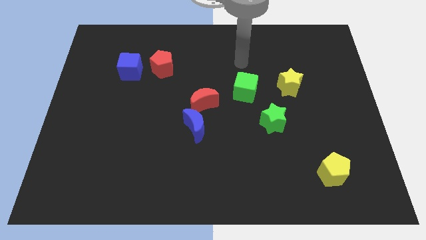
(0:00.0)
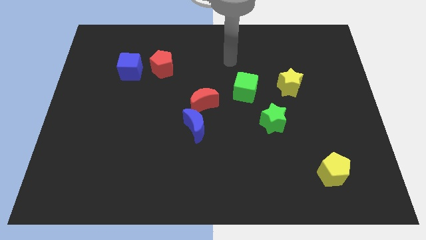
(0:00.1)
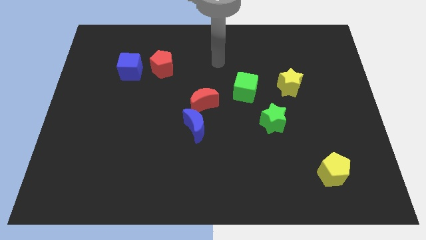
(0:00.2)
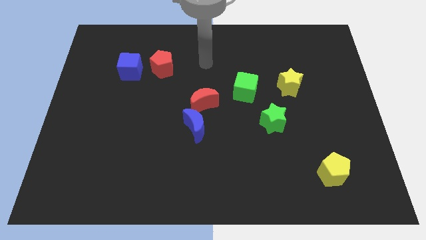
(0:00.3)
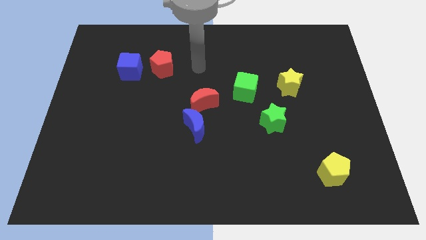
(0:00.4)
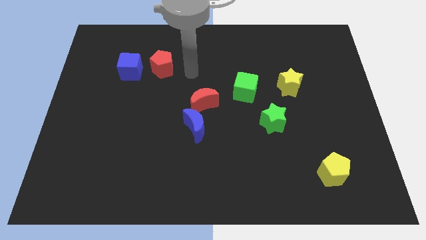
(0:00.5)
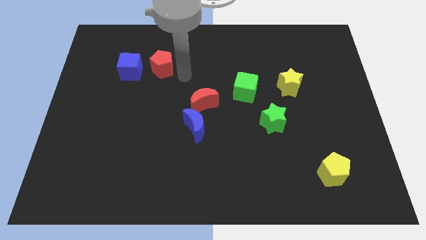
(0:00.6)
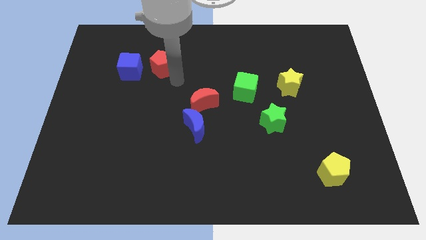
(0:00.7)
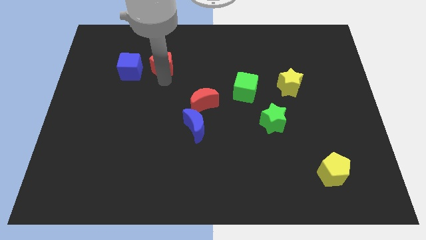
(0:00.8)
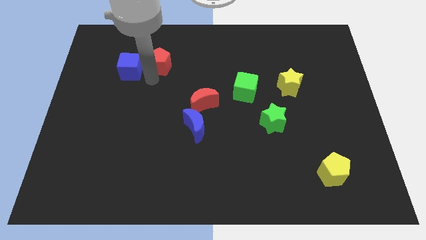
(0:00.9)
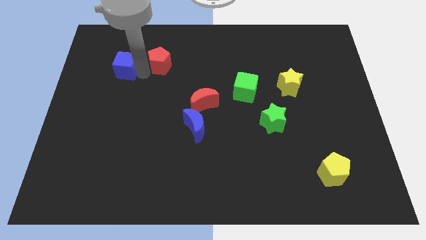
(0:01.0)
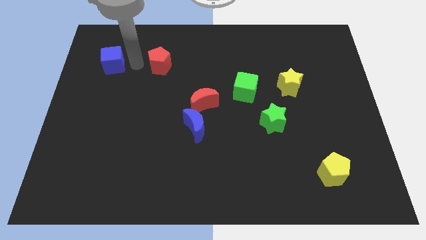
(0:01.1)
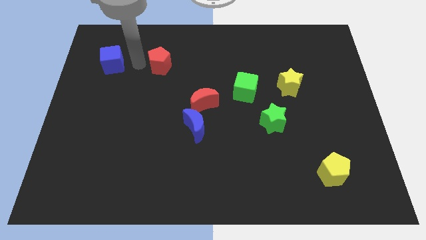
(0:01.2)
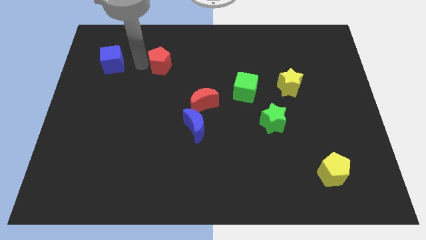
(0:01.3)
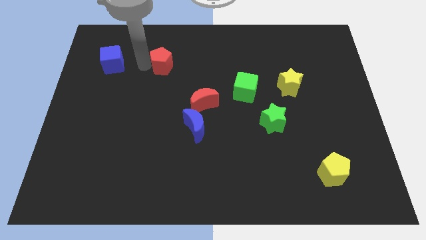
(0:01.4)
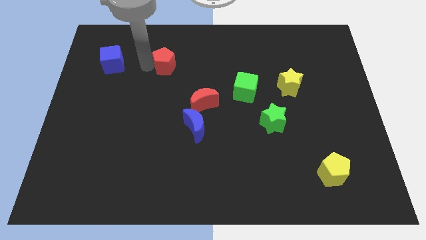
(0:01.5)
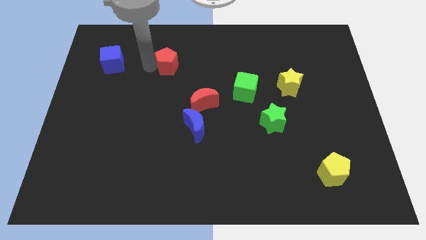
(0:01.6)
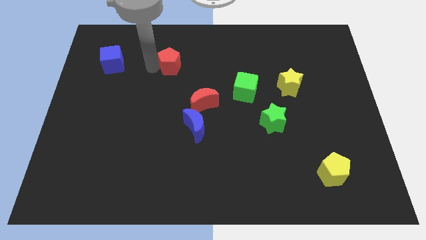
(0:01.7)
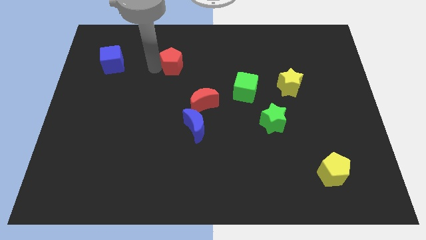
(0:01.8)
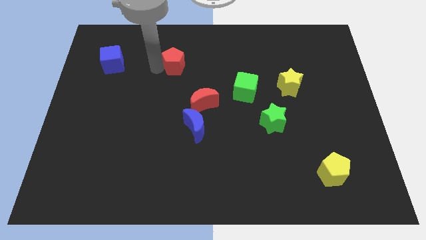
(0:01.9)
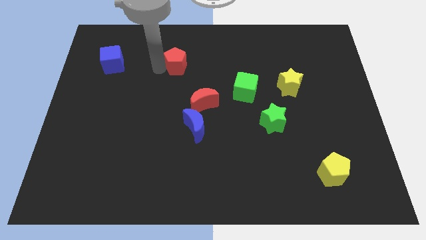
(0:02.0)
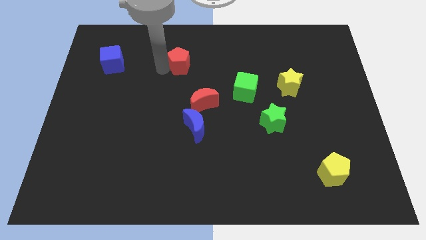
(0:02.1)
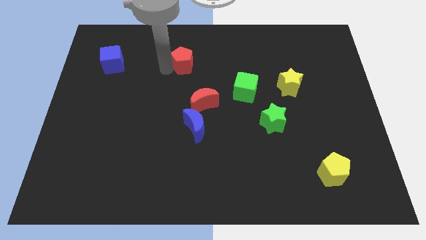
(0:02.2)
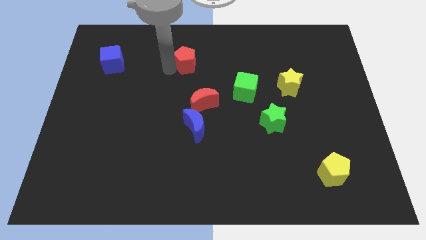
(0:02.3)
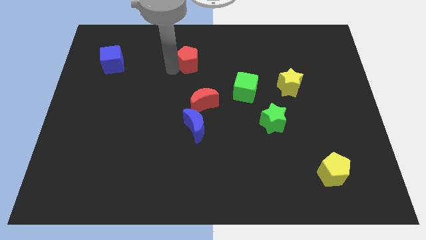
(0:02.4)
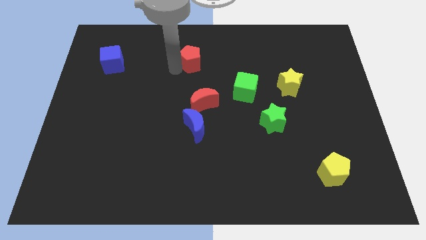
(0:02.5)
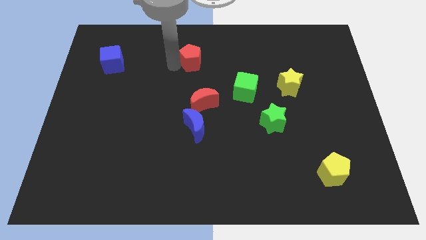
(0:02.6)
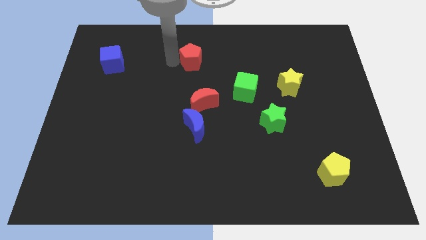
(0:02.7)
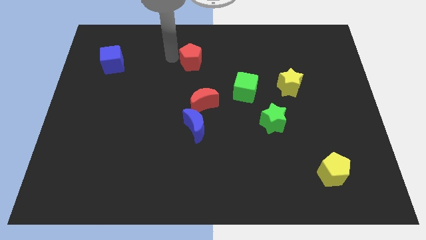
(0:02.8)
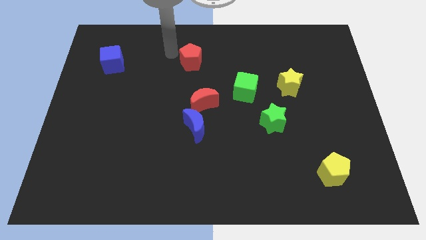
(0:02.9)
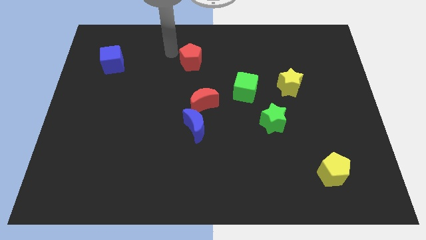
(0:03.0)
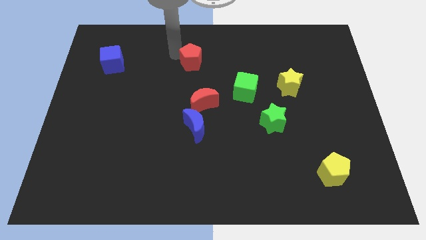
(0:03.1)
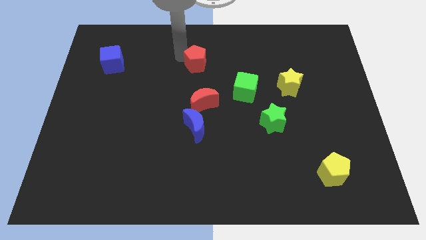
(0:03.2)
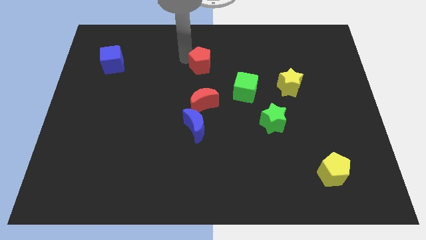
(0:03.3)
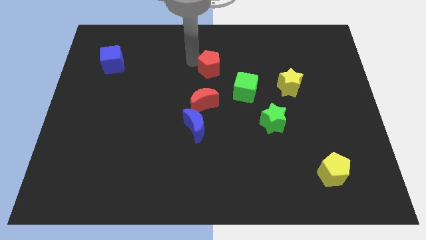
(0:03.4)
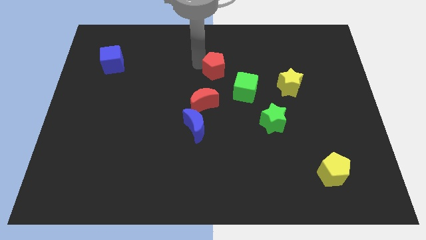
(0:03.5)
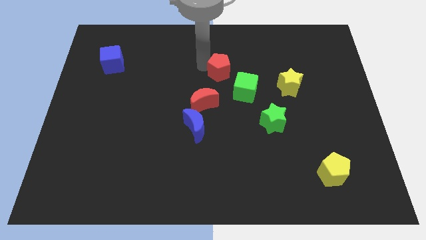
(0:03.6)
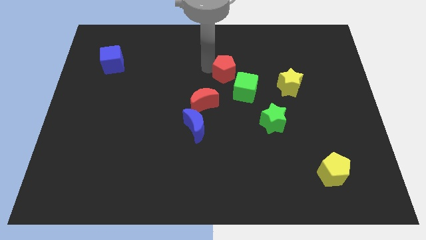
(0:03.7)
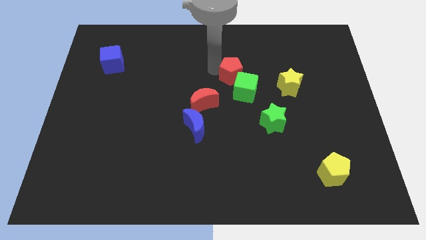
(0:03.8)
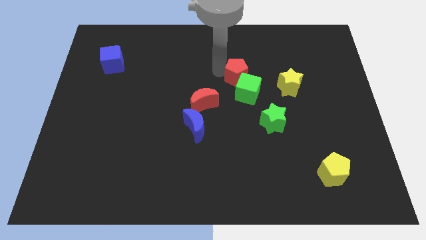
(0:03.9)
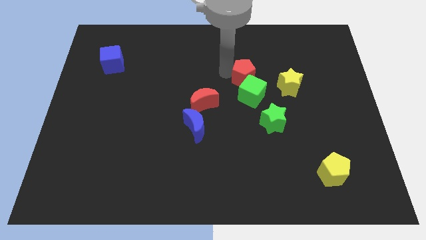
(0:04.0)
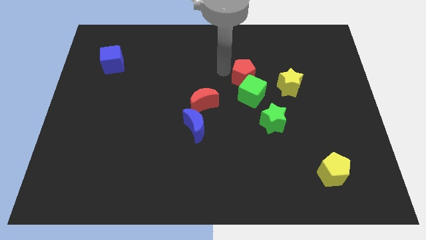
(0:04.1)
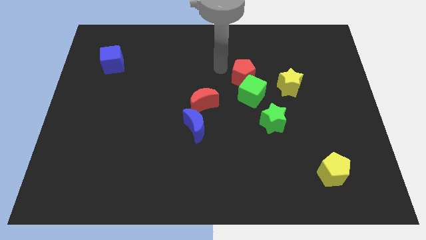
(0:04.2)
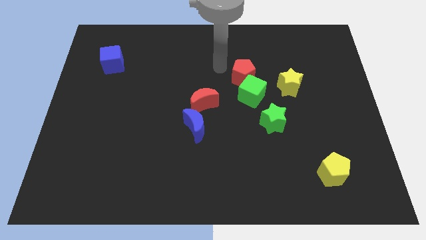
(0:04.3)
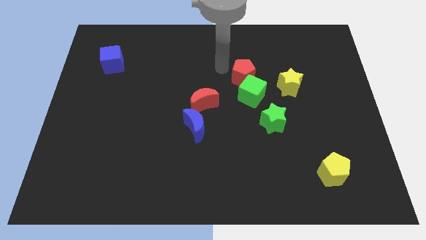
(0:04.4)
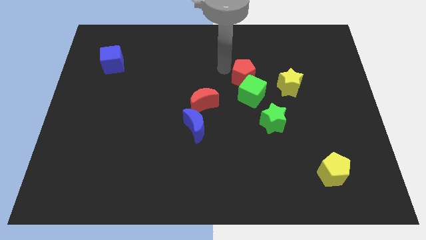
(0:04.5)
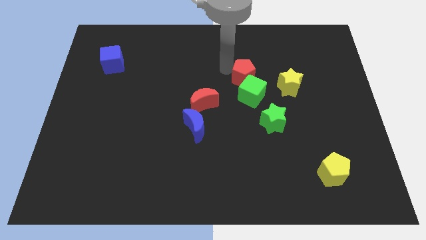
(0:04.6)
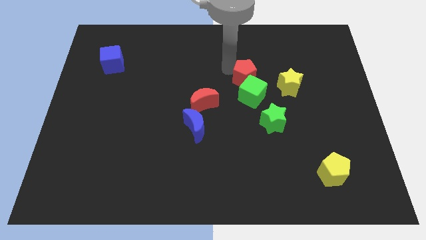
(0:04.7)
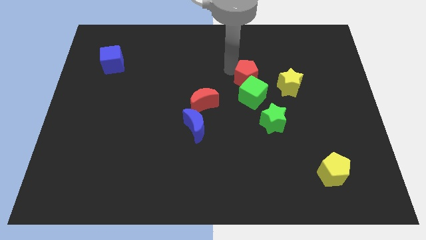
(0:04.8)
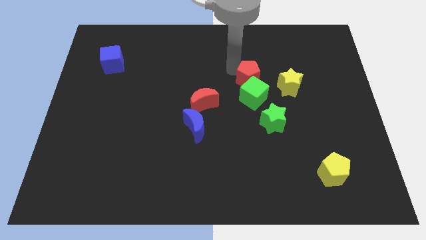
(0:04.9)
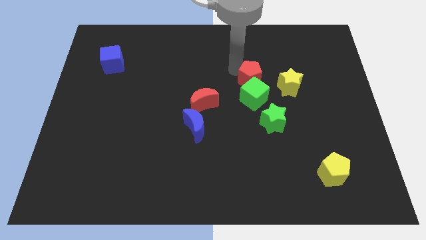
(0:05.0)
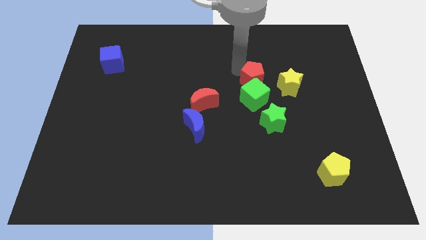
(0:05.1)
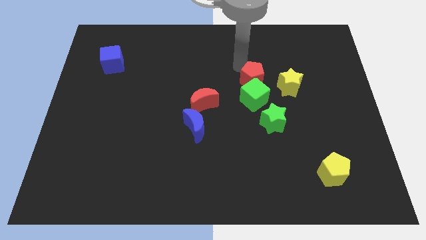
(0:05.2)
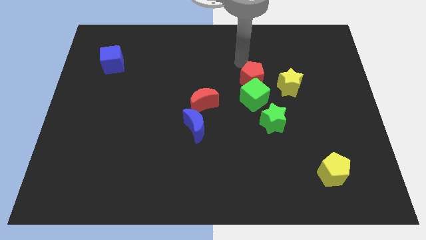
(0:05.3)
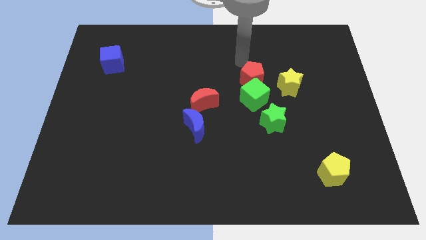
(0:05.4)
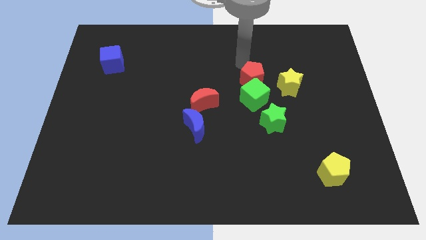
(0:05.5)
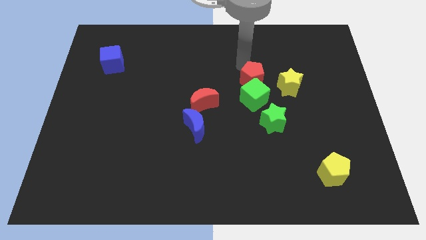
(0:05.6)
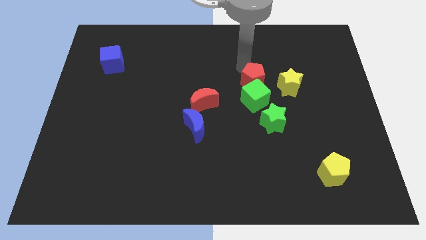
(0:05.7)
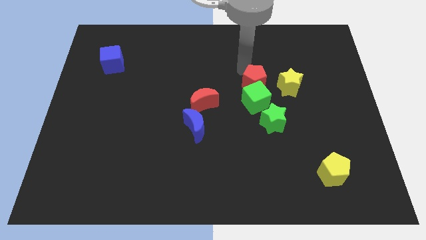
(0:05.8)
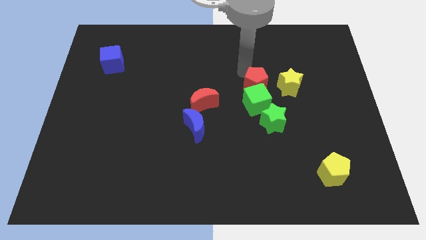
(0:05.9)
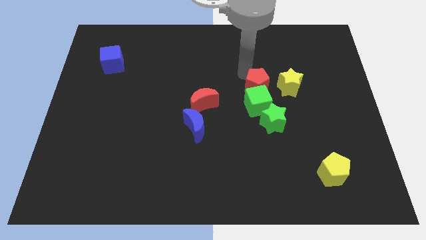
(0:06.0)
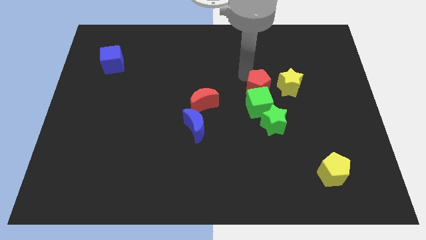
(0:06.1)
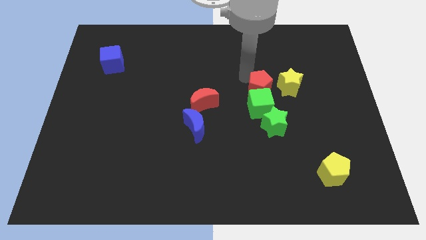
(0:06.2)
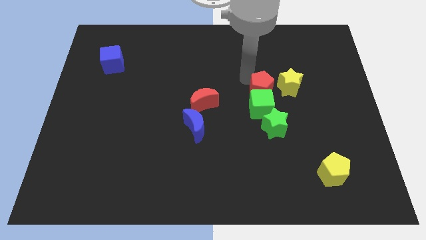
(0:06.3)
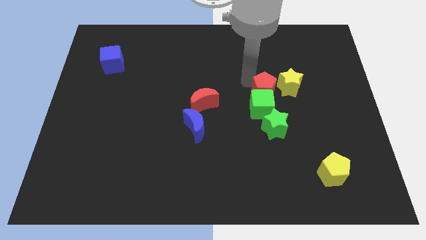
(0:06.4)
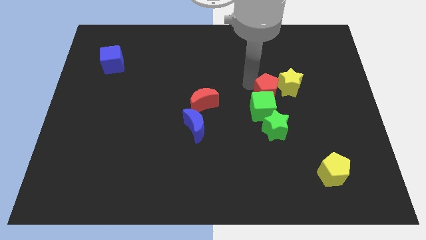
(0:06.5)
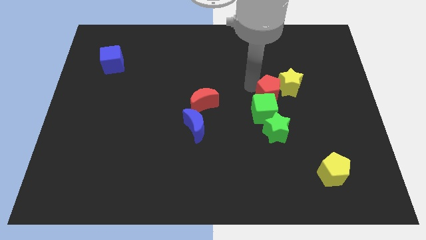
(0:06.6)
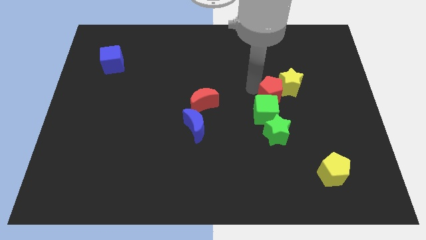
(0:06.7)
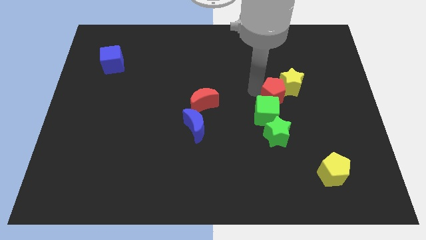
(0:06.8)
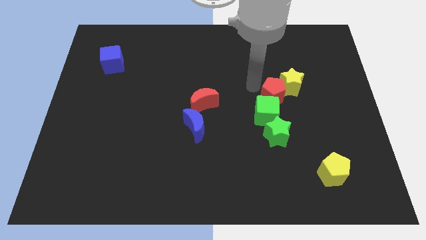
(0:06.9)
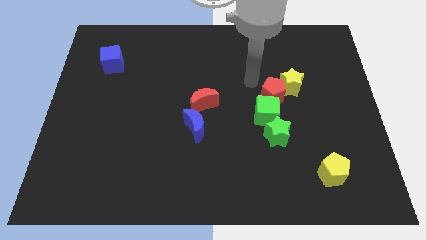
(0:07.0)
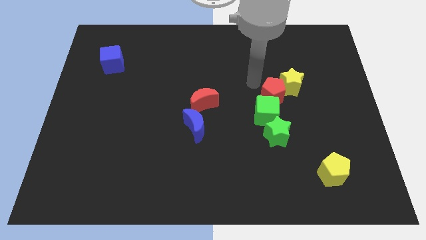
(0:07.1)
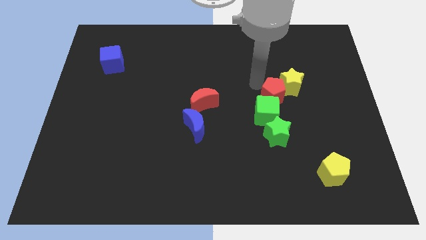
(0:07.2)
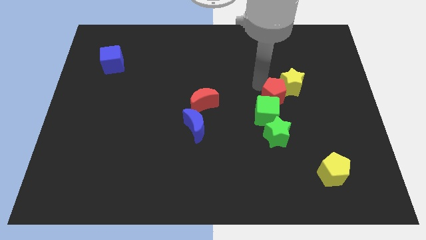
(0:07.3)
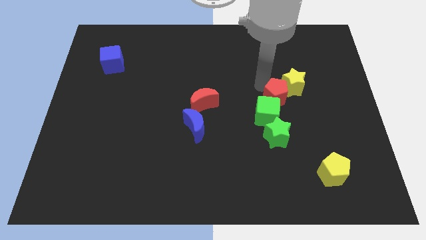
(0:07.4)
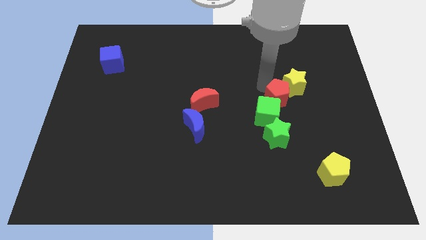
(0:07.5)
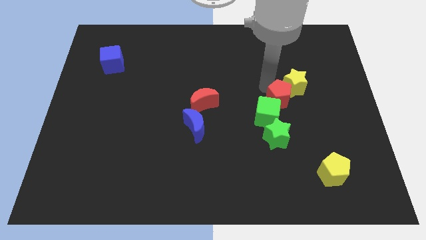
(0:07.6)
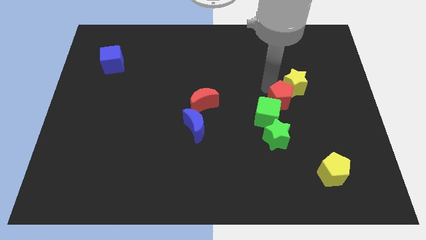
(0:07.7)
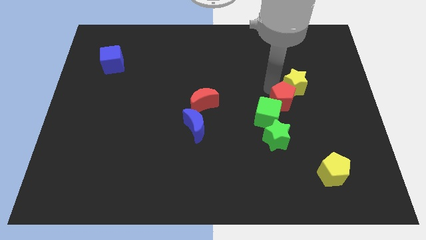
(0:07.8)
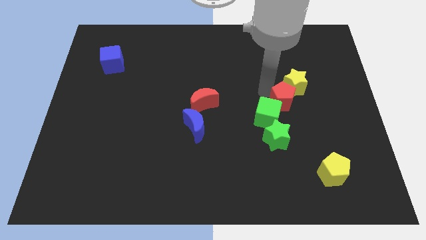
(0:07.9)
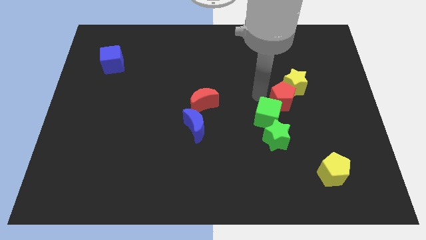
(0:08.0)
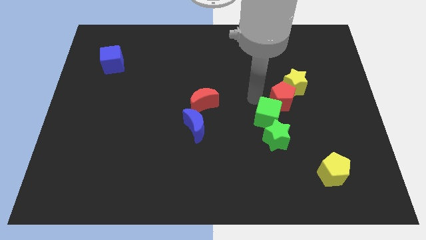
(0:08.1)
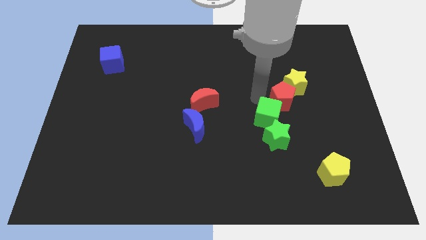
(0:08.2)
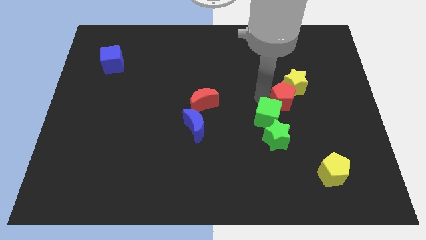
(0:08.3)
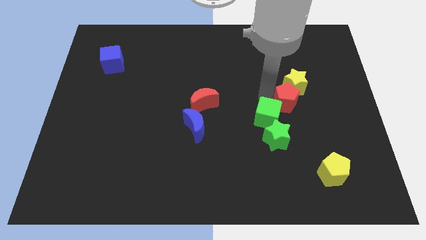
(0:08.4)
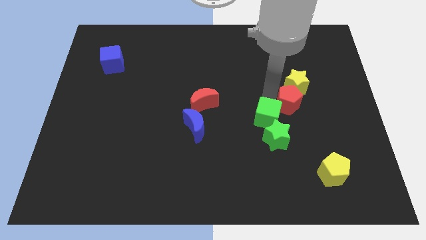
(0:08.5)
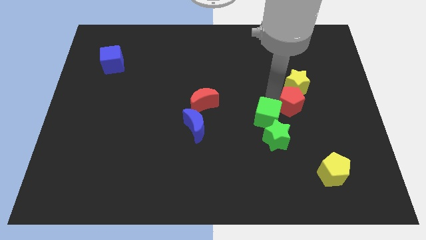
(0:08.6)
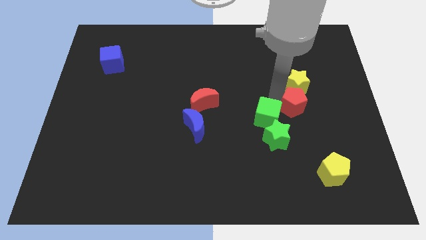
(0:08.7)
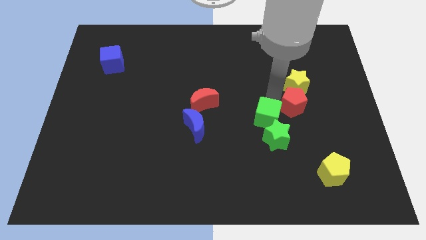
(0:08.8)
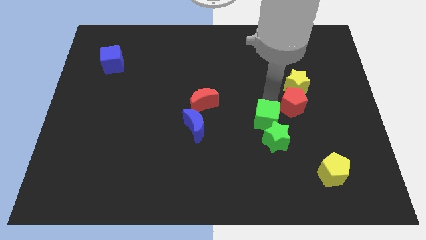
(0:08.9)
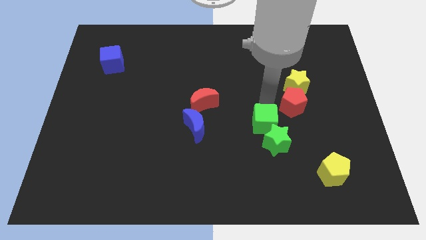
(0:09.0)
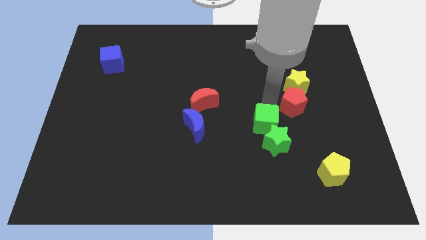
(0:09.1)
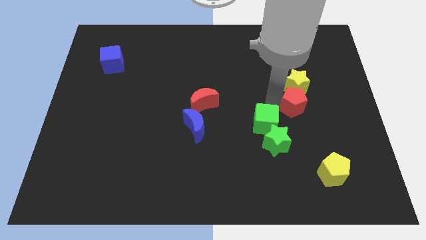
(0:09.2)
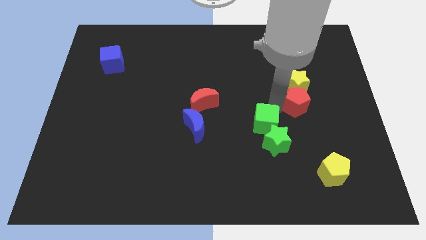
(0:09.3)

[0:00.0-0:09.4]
put the red pentagon diagonally down and to the right of the yellow star
